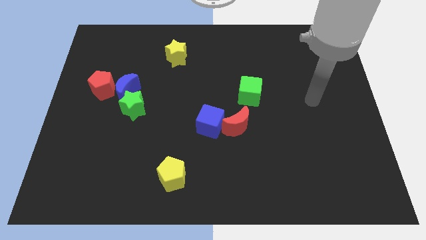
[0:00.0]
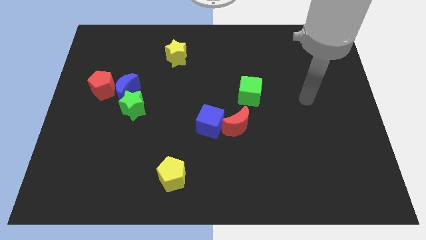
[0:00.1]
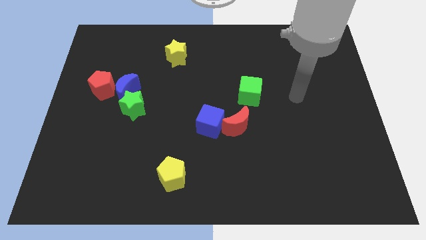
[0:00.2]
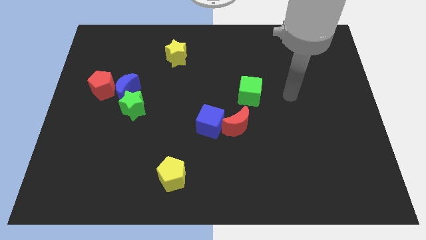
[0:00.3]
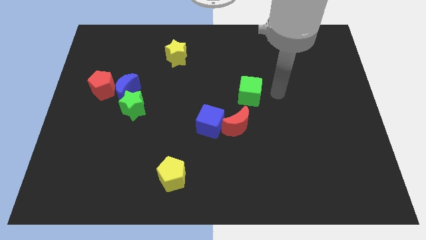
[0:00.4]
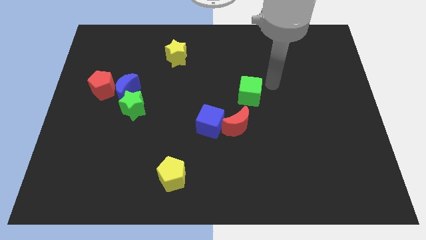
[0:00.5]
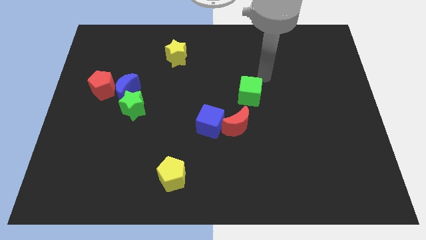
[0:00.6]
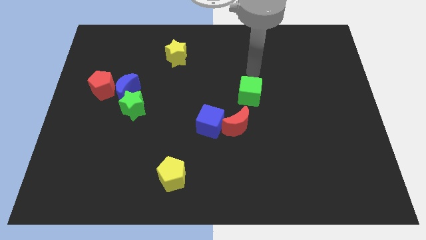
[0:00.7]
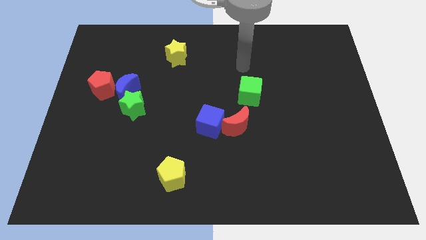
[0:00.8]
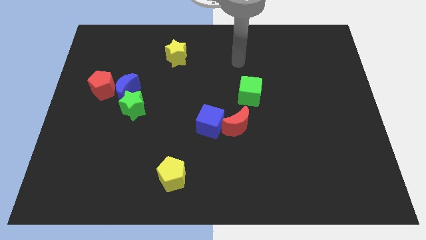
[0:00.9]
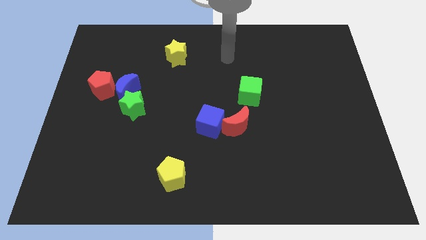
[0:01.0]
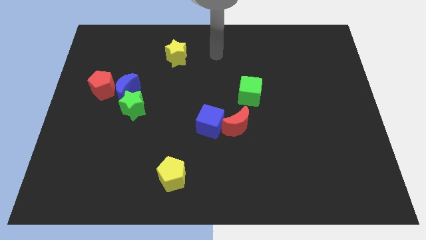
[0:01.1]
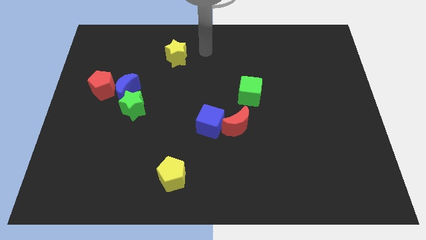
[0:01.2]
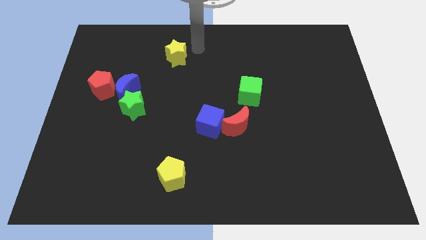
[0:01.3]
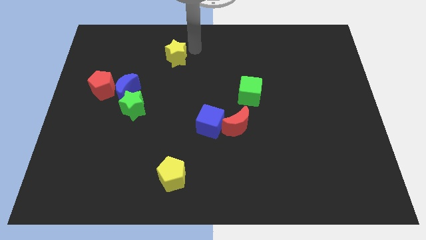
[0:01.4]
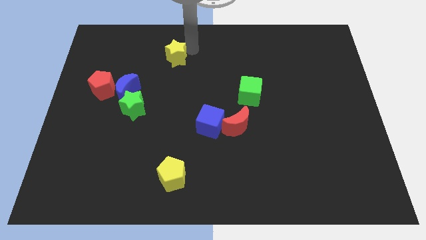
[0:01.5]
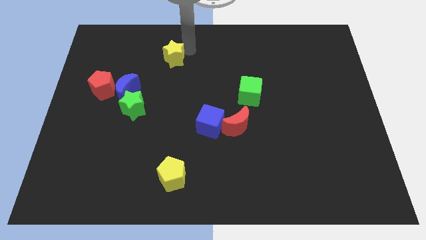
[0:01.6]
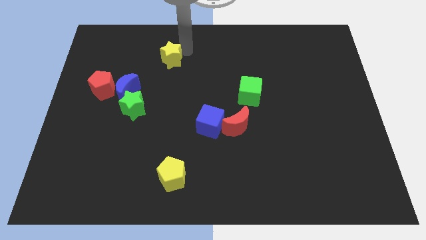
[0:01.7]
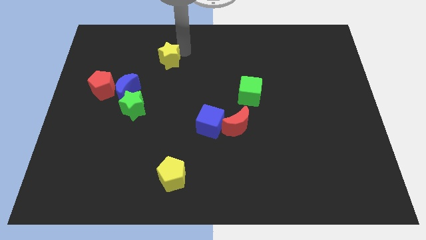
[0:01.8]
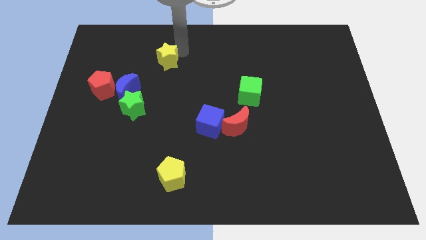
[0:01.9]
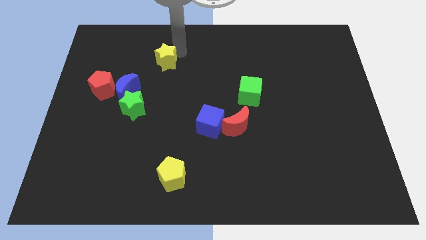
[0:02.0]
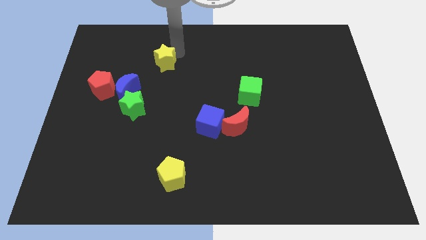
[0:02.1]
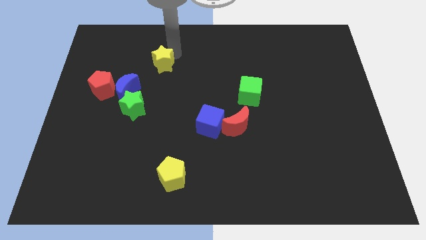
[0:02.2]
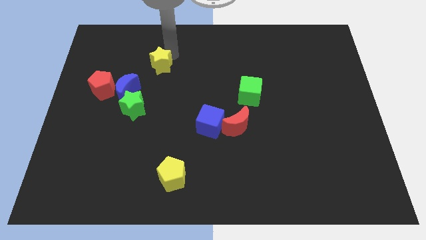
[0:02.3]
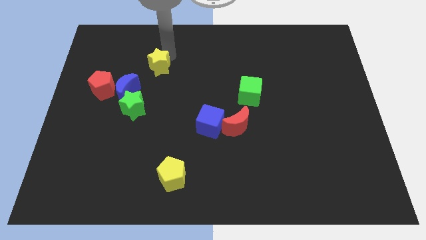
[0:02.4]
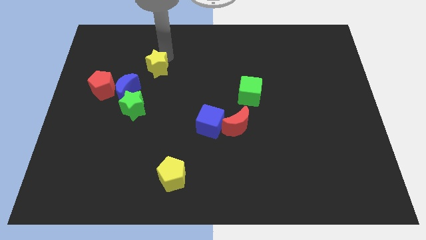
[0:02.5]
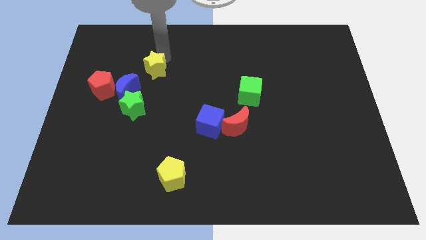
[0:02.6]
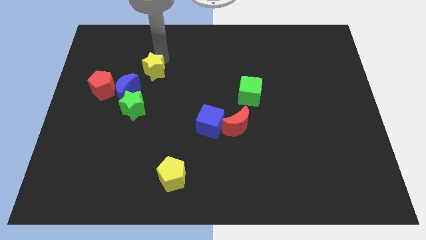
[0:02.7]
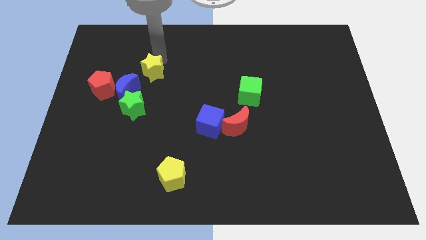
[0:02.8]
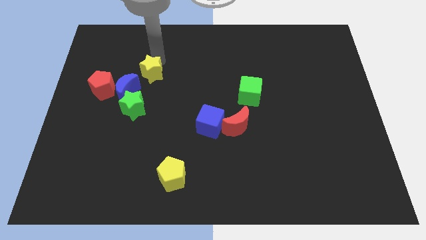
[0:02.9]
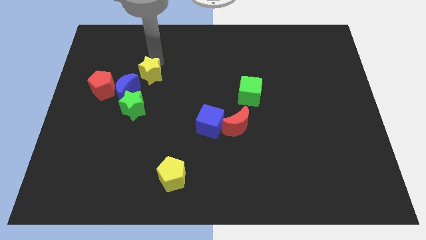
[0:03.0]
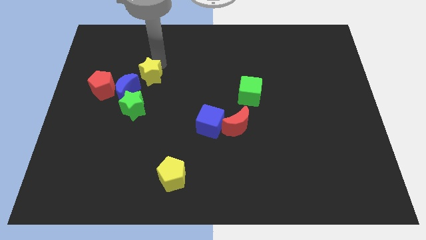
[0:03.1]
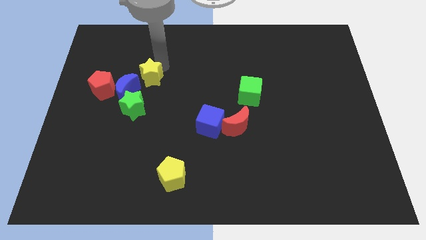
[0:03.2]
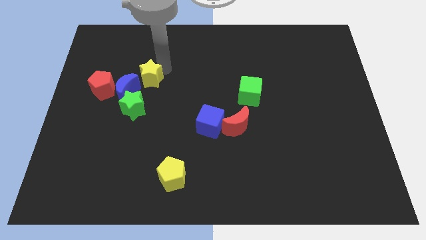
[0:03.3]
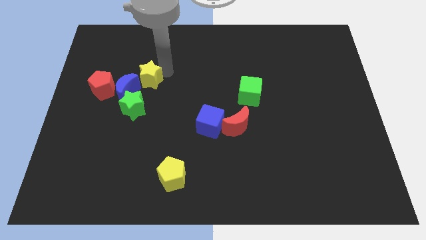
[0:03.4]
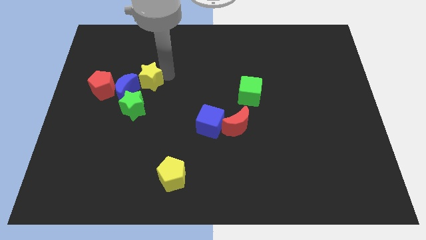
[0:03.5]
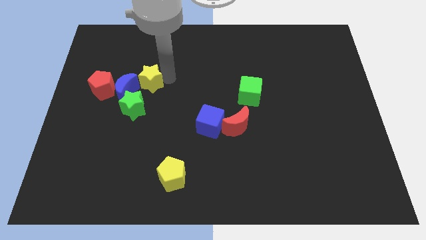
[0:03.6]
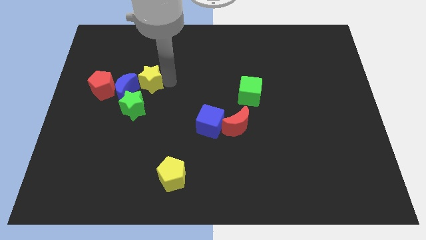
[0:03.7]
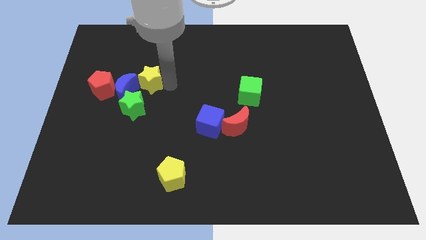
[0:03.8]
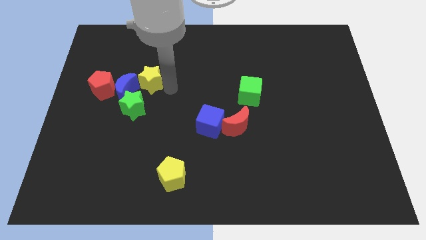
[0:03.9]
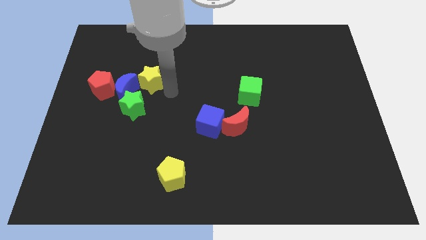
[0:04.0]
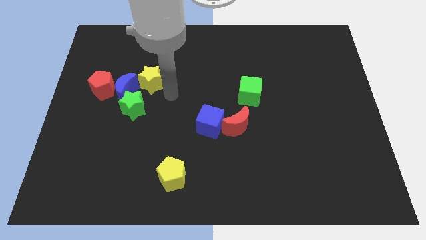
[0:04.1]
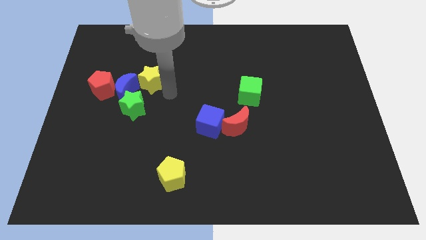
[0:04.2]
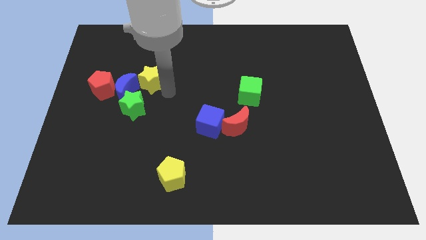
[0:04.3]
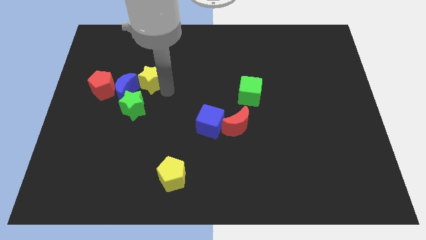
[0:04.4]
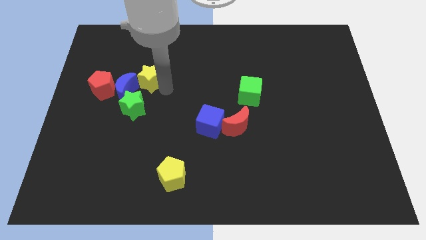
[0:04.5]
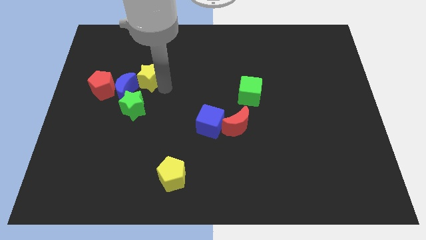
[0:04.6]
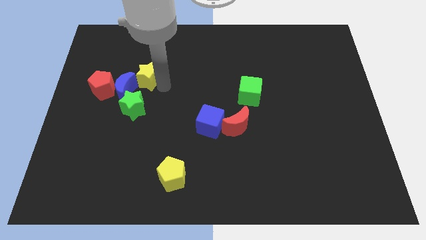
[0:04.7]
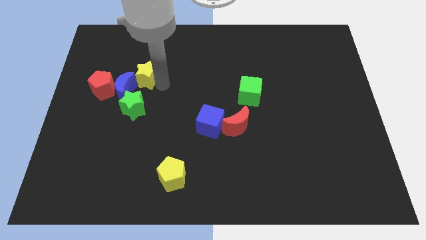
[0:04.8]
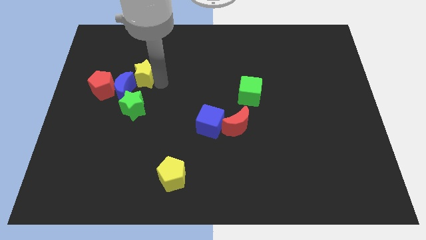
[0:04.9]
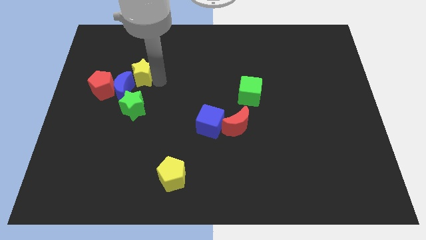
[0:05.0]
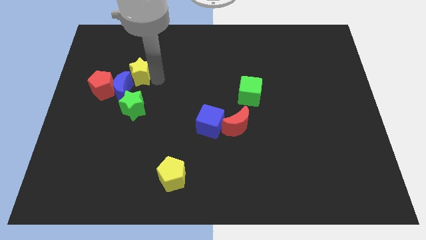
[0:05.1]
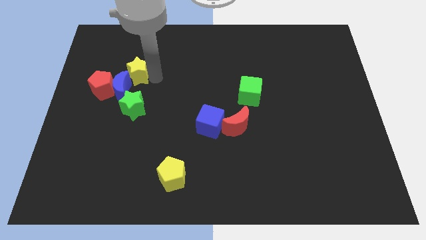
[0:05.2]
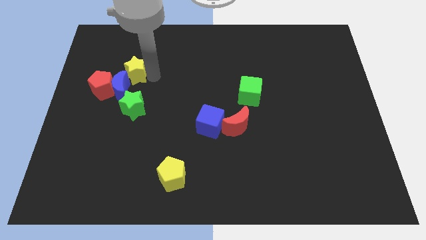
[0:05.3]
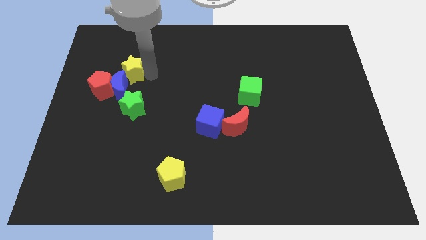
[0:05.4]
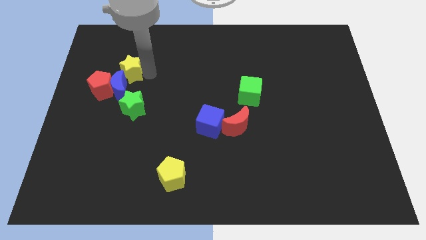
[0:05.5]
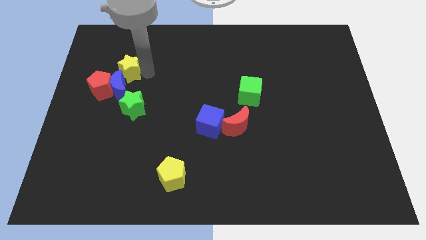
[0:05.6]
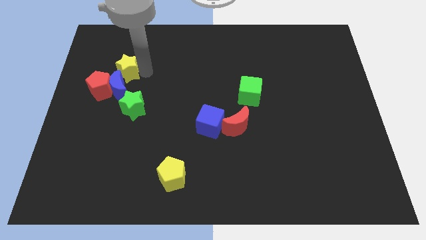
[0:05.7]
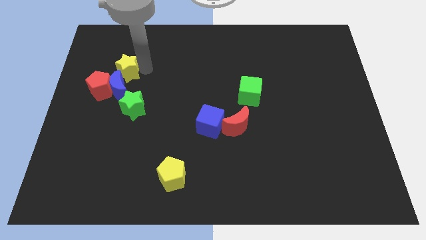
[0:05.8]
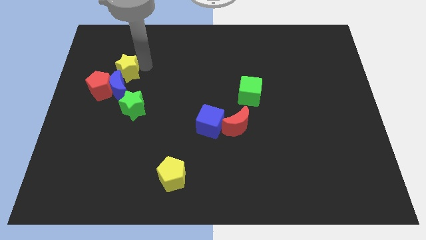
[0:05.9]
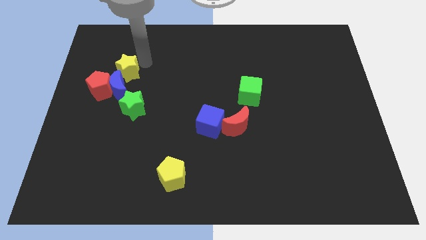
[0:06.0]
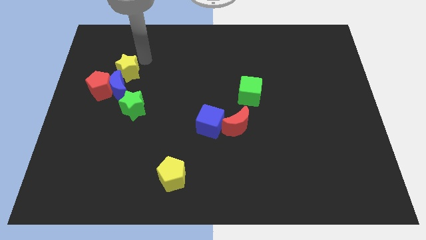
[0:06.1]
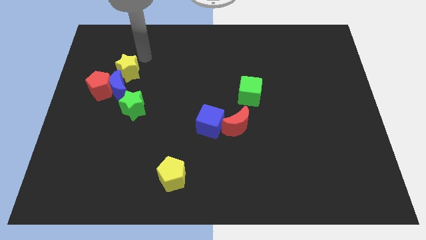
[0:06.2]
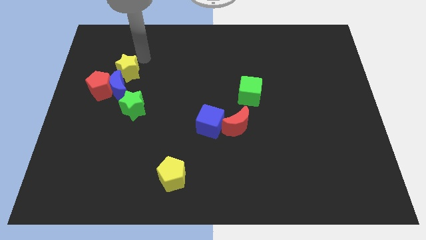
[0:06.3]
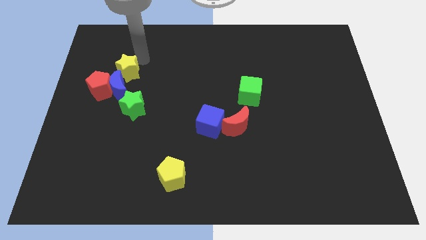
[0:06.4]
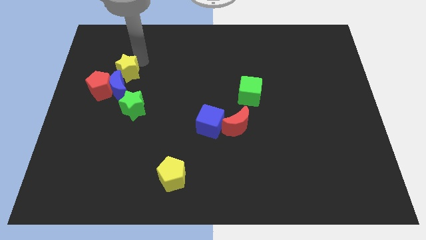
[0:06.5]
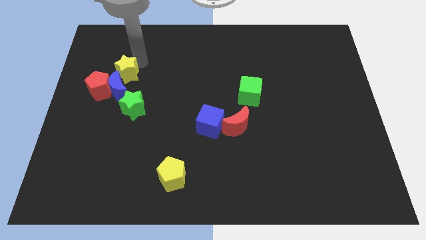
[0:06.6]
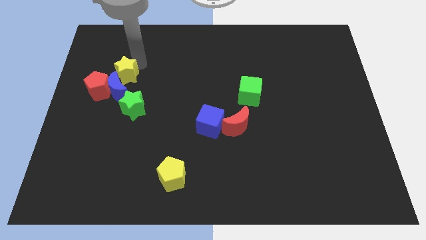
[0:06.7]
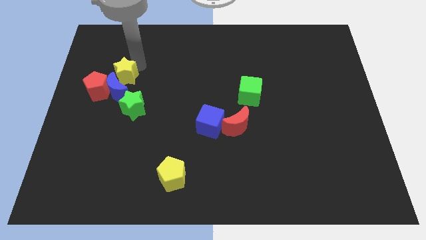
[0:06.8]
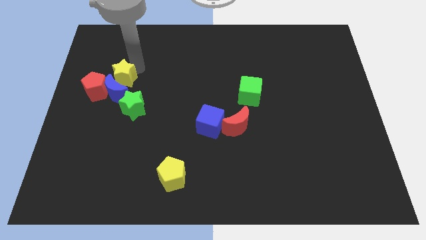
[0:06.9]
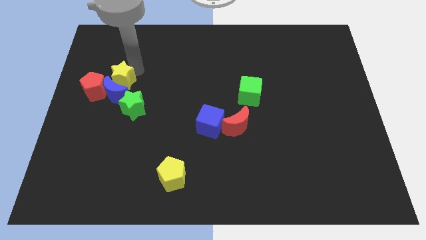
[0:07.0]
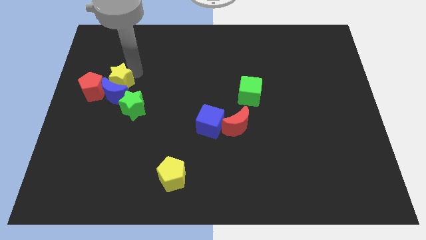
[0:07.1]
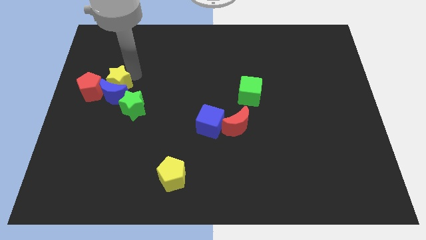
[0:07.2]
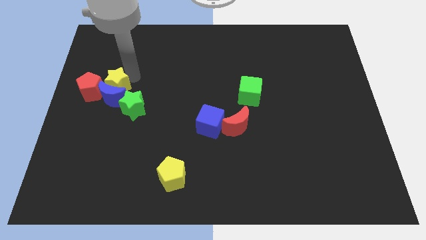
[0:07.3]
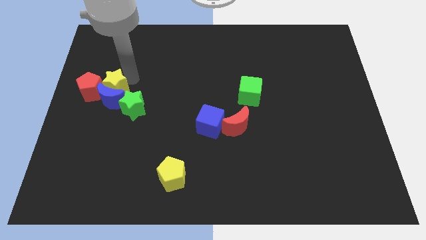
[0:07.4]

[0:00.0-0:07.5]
push the yellow star close to the red pentagon
